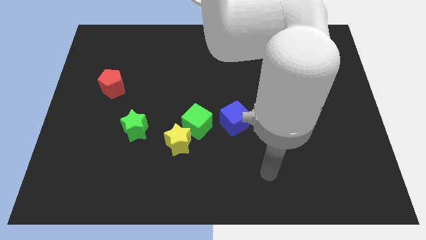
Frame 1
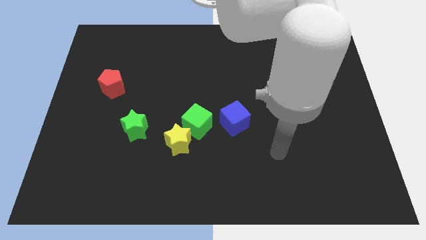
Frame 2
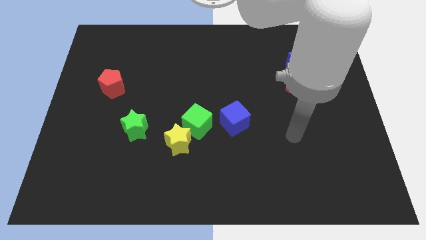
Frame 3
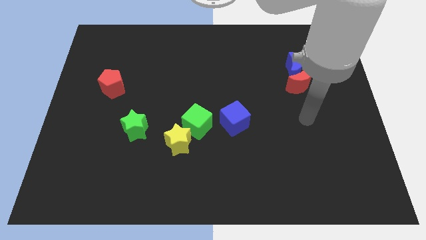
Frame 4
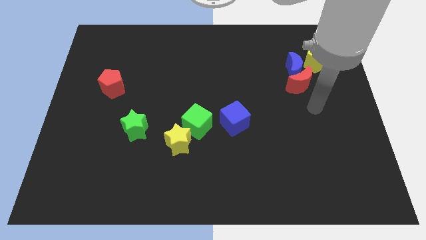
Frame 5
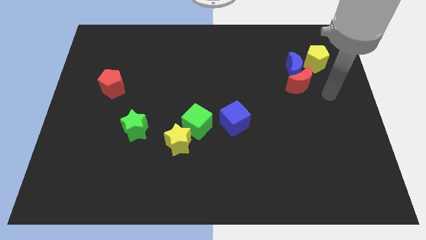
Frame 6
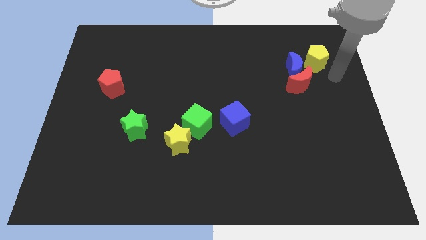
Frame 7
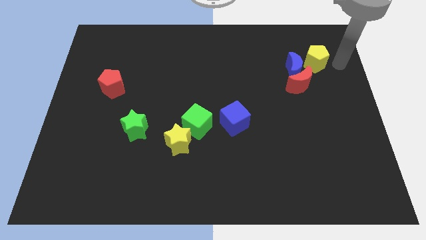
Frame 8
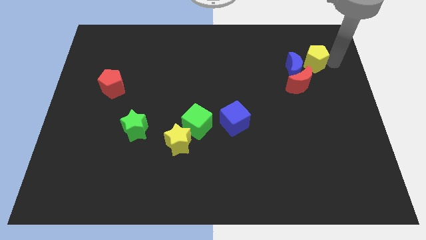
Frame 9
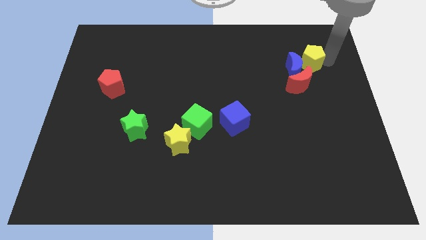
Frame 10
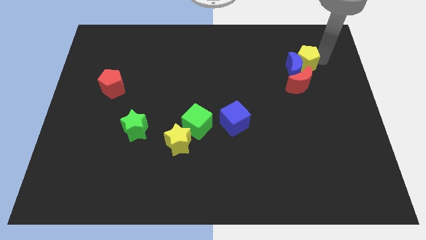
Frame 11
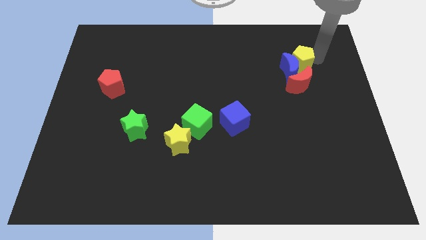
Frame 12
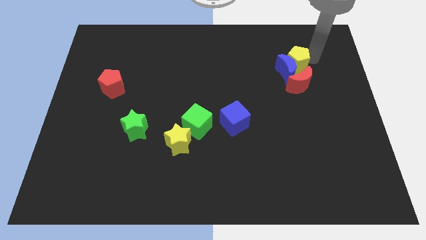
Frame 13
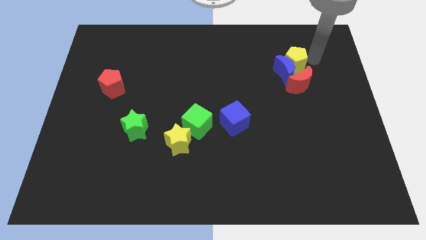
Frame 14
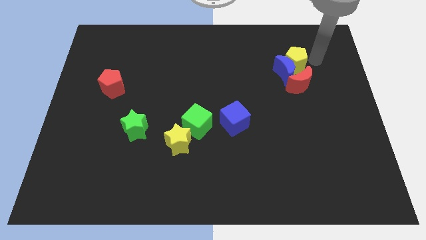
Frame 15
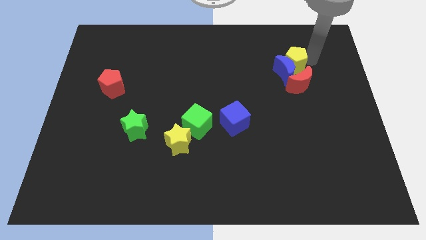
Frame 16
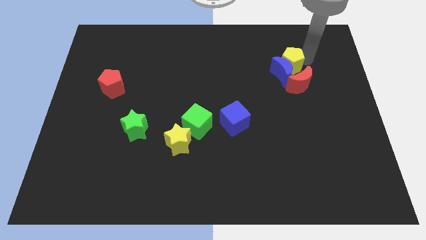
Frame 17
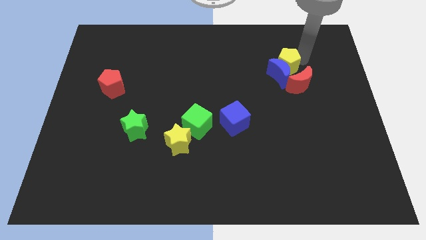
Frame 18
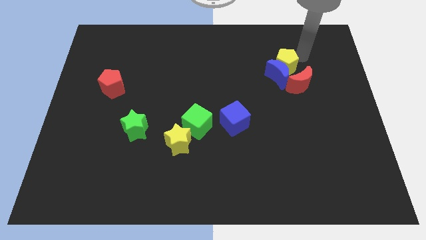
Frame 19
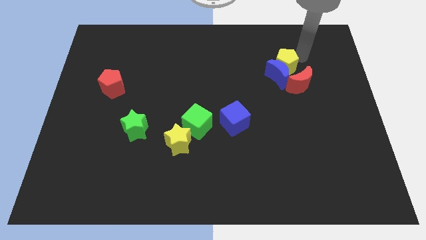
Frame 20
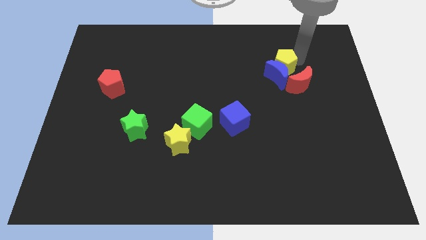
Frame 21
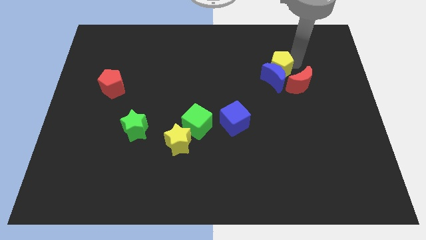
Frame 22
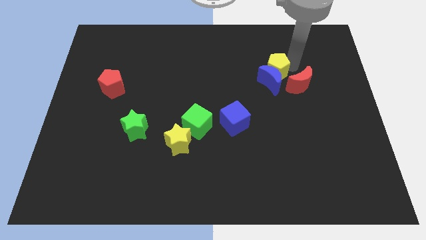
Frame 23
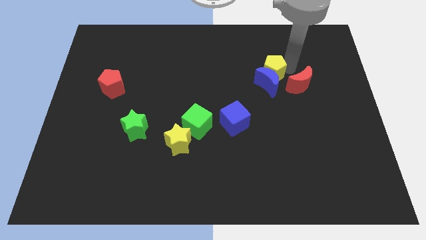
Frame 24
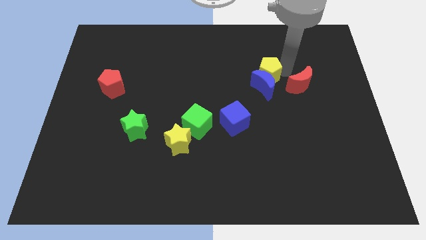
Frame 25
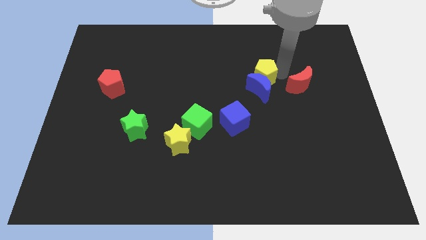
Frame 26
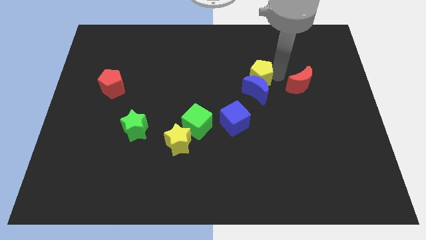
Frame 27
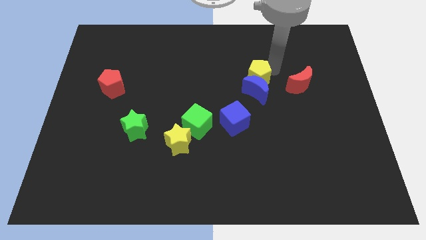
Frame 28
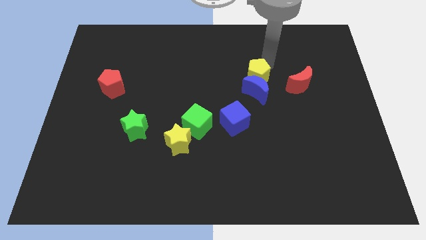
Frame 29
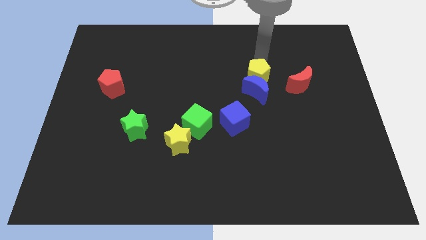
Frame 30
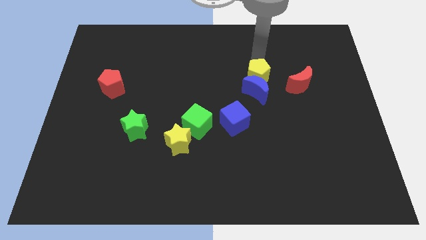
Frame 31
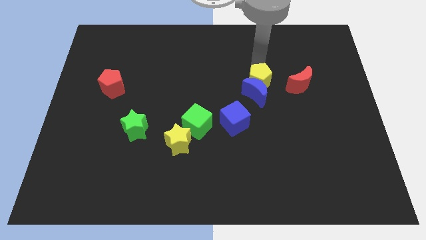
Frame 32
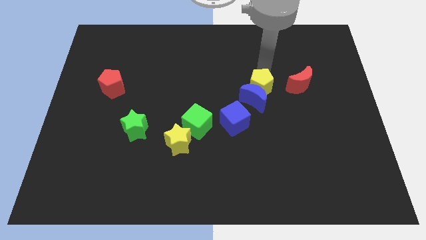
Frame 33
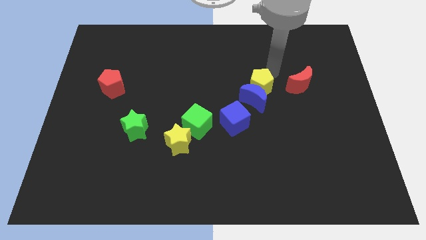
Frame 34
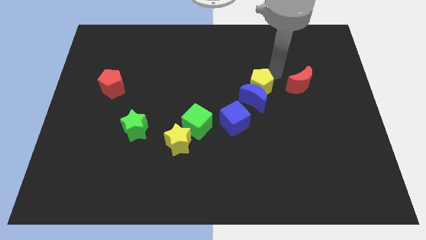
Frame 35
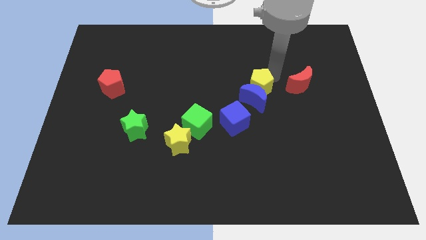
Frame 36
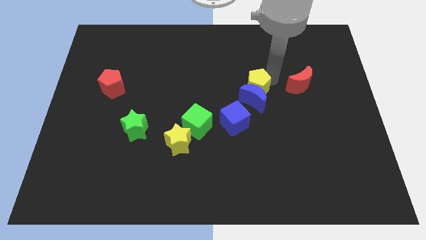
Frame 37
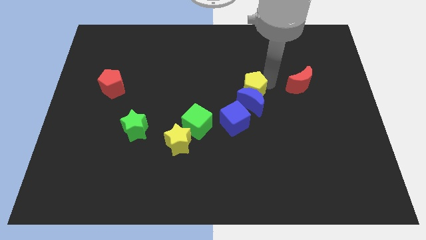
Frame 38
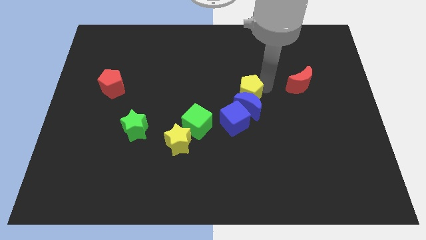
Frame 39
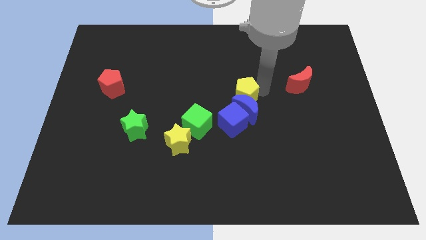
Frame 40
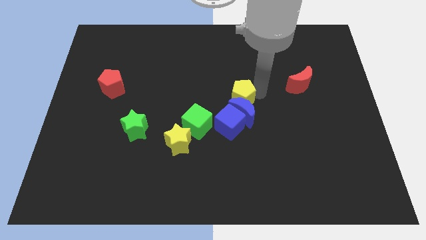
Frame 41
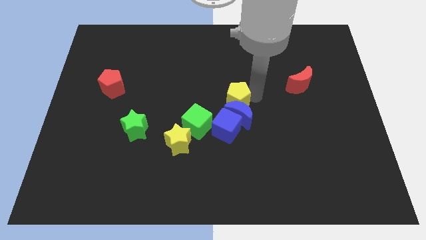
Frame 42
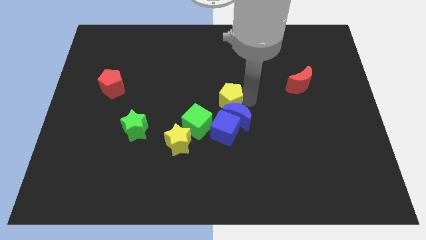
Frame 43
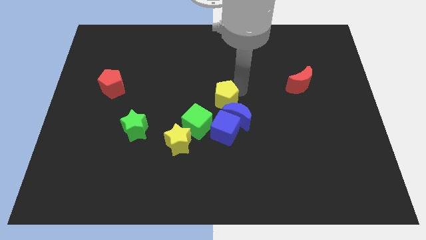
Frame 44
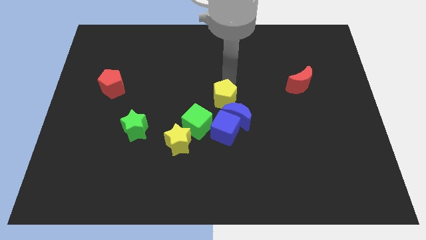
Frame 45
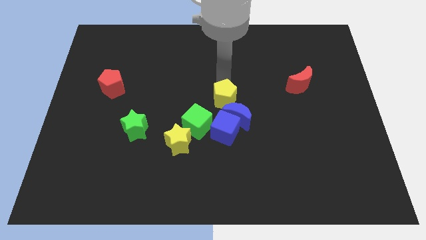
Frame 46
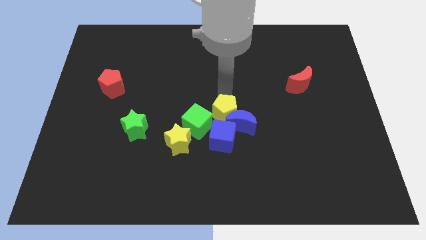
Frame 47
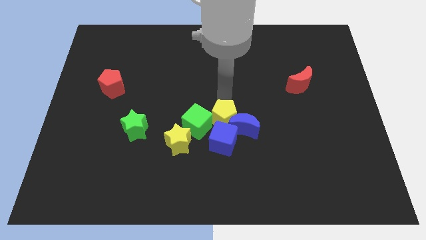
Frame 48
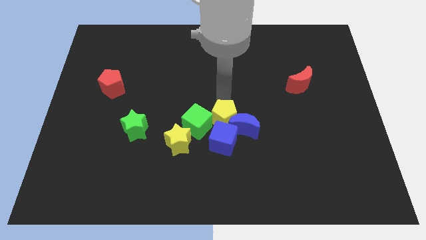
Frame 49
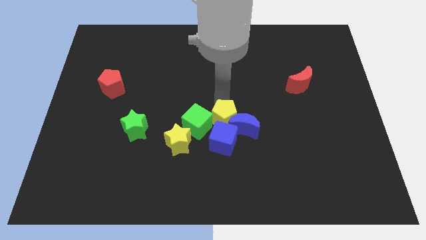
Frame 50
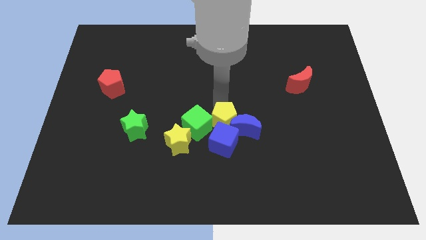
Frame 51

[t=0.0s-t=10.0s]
move the yellow pentagon towards the blue cube

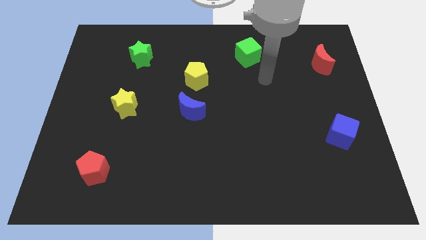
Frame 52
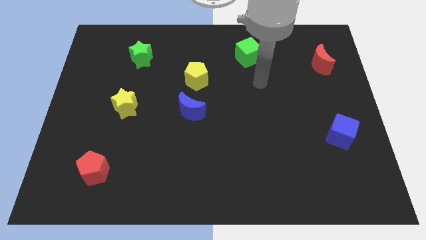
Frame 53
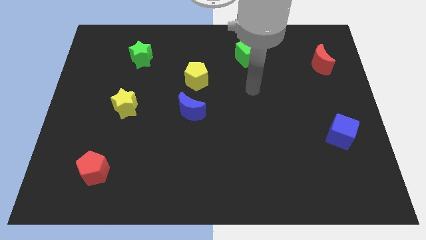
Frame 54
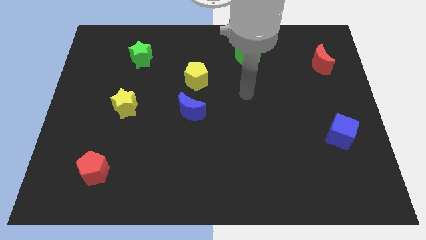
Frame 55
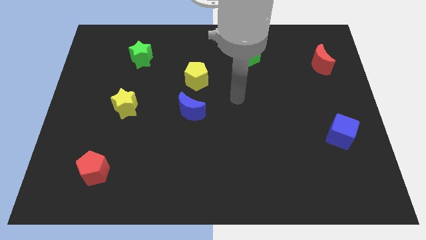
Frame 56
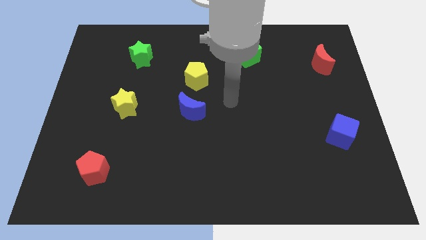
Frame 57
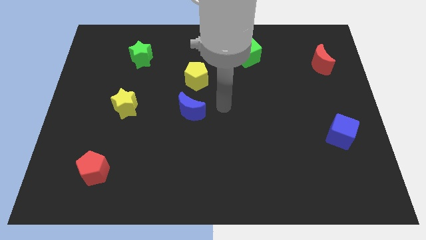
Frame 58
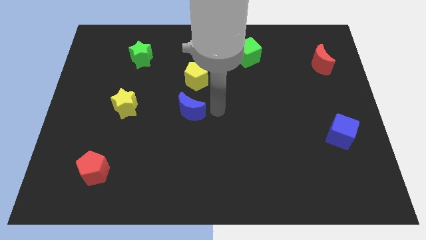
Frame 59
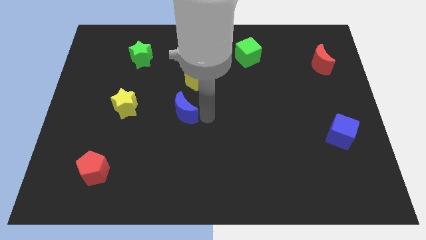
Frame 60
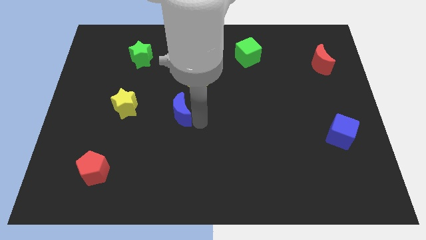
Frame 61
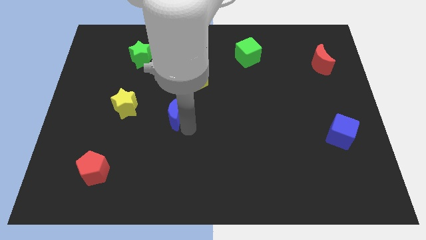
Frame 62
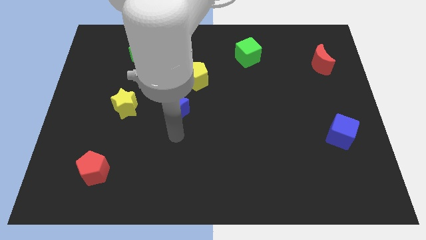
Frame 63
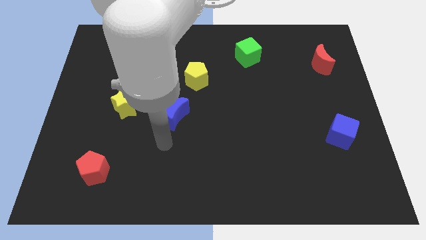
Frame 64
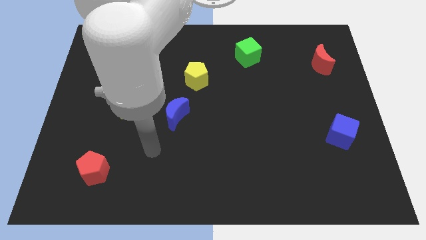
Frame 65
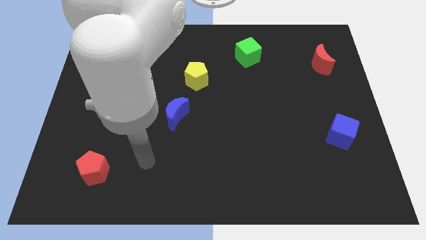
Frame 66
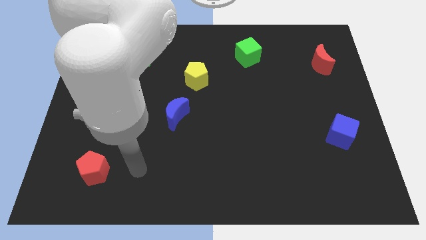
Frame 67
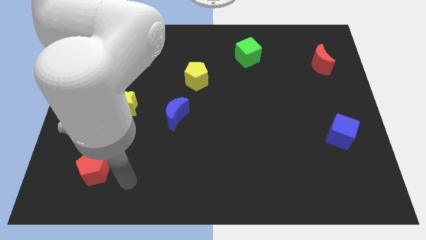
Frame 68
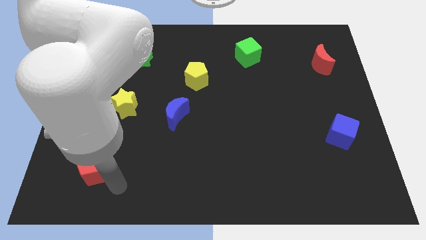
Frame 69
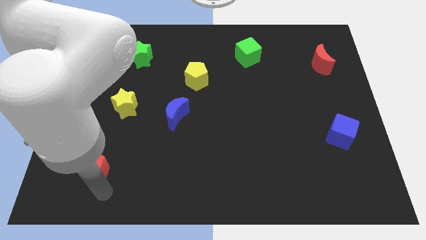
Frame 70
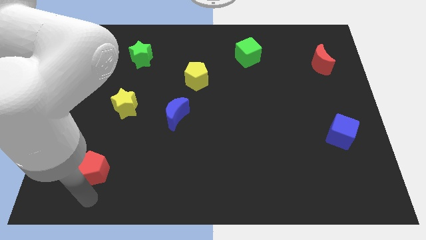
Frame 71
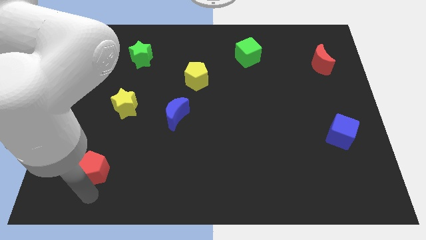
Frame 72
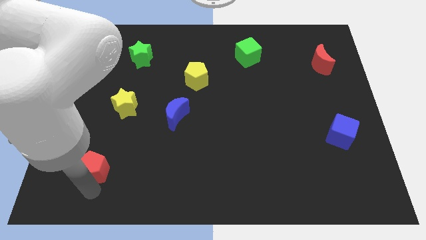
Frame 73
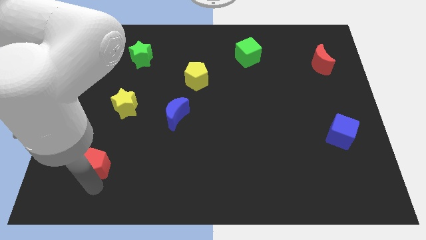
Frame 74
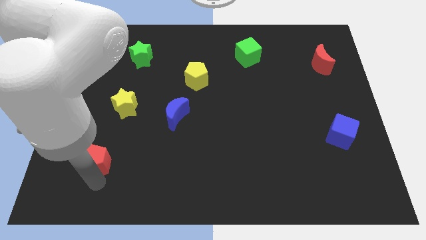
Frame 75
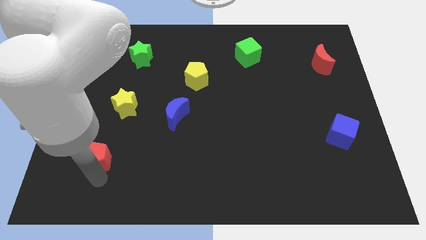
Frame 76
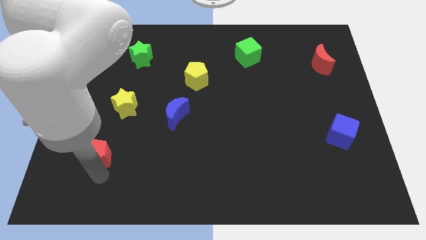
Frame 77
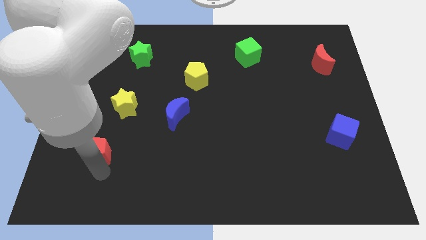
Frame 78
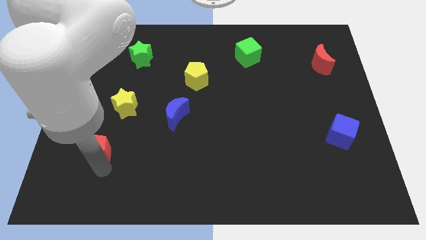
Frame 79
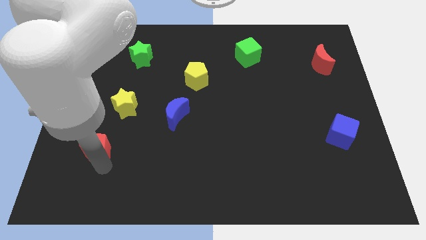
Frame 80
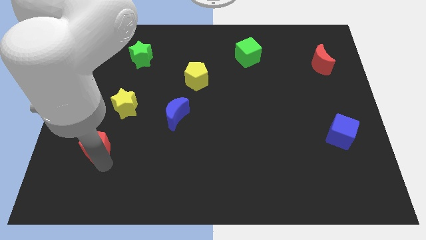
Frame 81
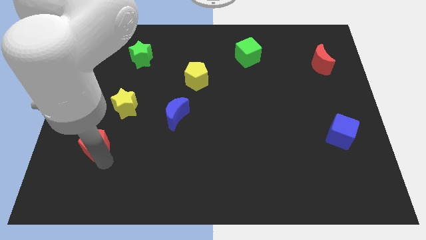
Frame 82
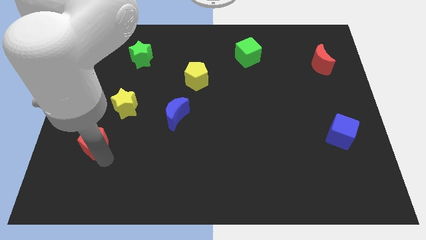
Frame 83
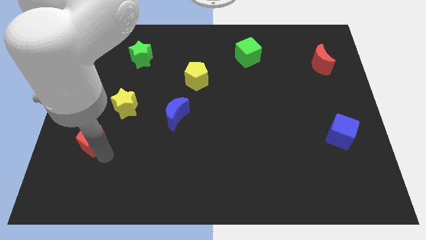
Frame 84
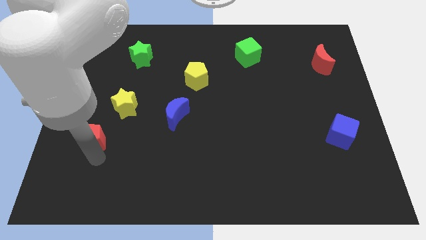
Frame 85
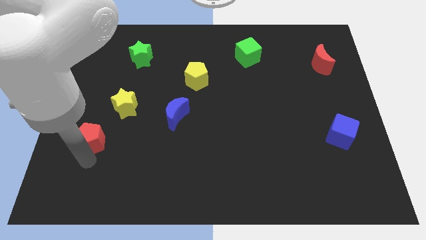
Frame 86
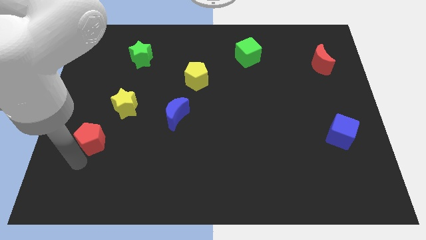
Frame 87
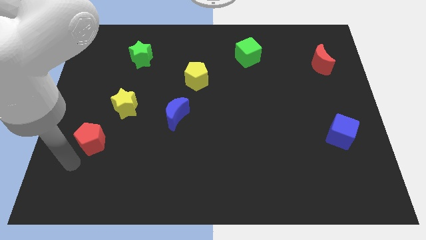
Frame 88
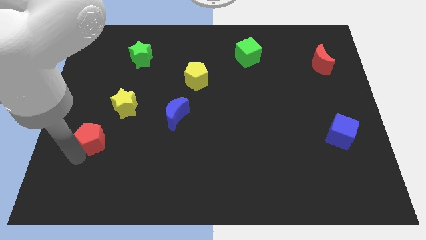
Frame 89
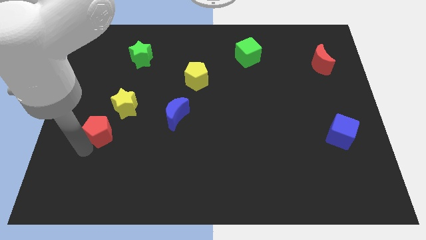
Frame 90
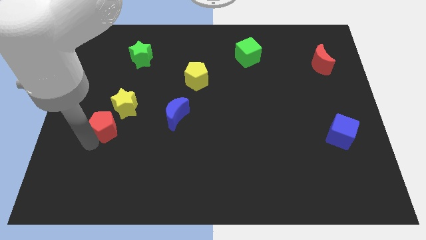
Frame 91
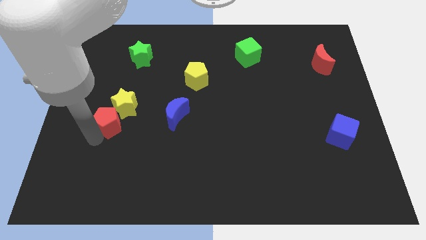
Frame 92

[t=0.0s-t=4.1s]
push the red pentagon close to the yellow star
